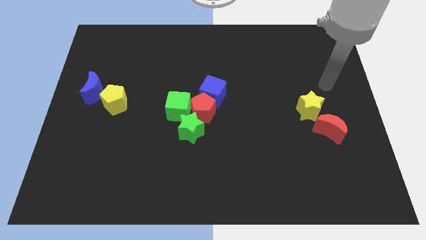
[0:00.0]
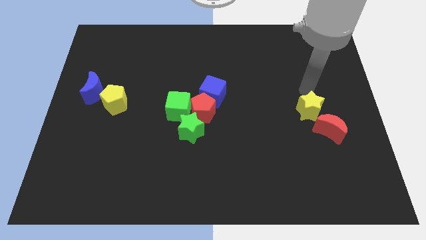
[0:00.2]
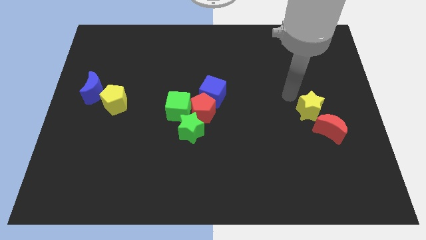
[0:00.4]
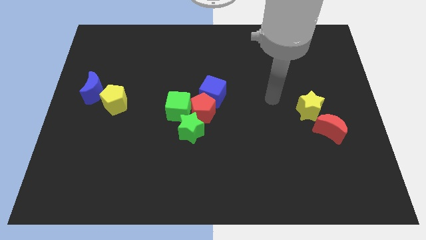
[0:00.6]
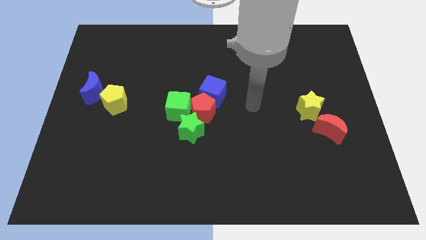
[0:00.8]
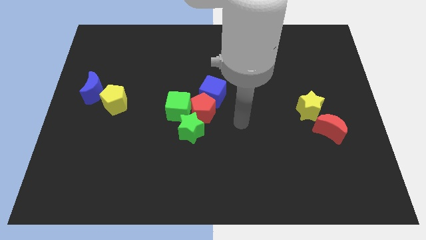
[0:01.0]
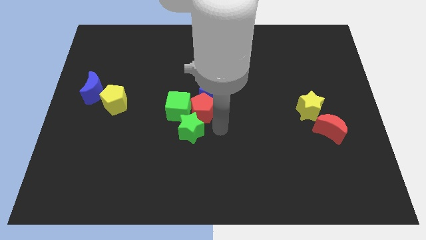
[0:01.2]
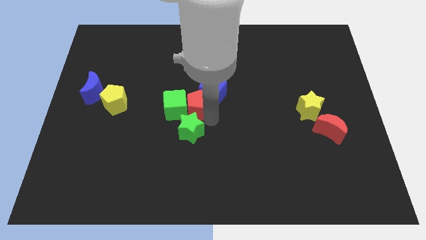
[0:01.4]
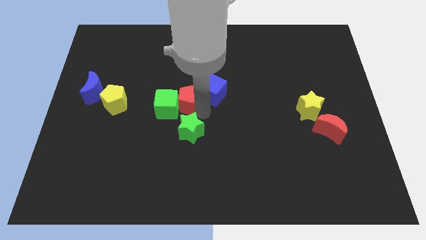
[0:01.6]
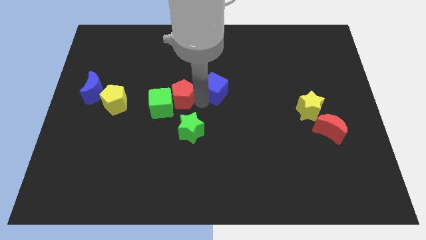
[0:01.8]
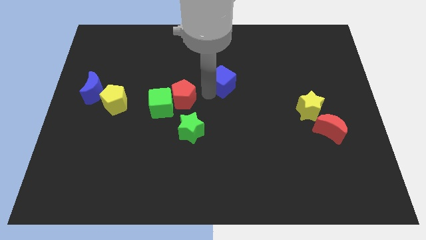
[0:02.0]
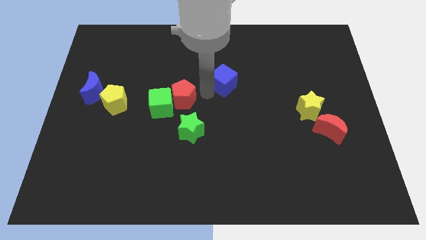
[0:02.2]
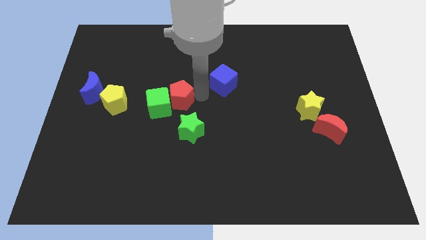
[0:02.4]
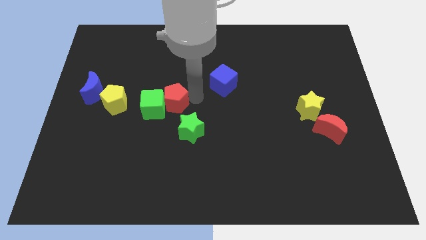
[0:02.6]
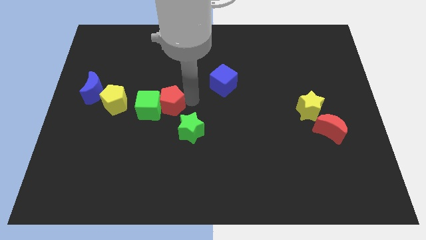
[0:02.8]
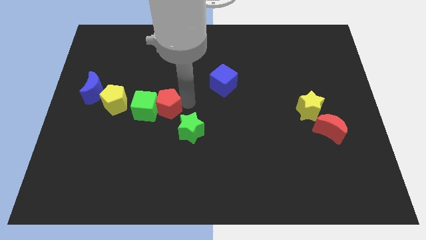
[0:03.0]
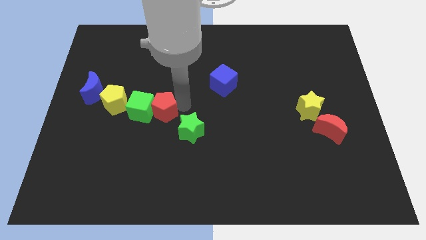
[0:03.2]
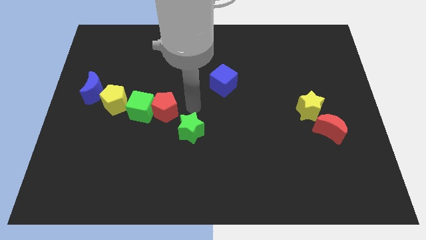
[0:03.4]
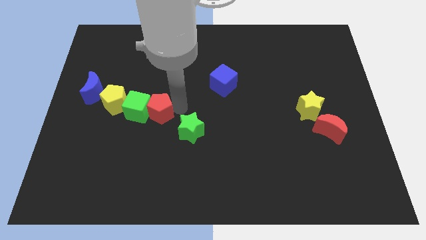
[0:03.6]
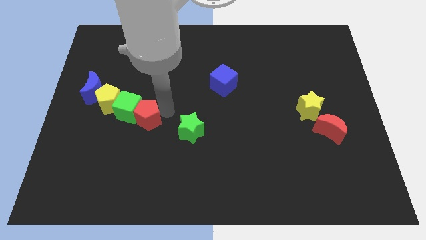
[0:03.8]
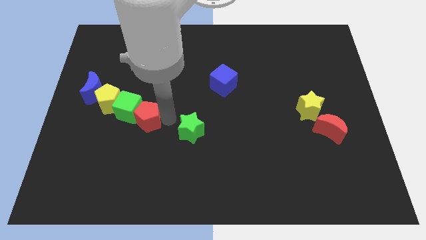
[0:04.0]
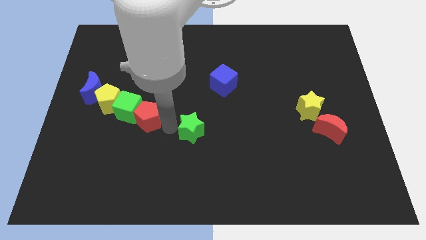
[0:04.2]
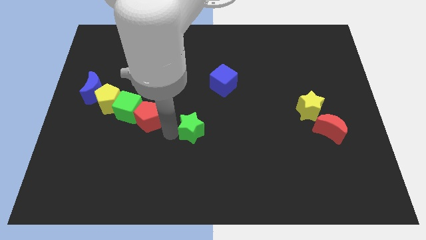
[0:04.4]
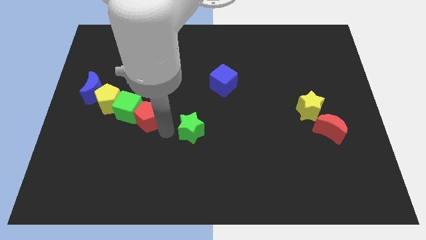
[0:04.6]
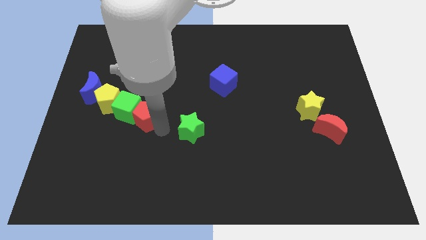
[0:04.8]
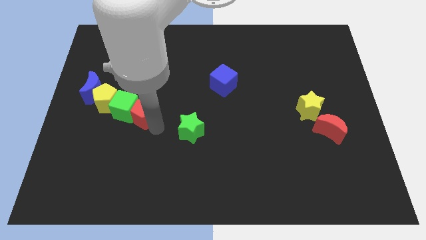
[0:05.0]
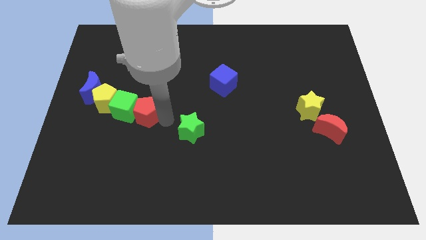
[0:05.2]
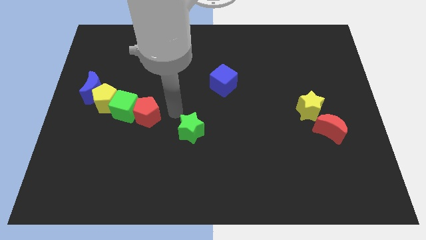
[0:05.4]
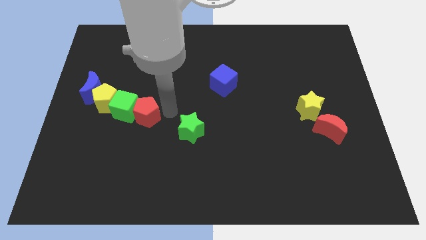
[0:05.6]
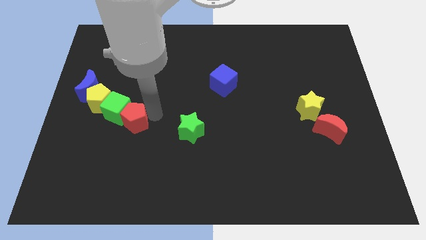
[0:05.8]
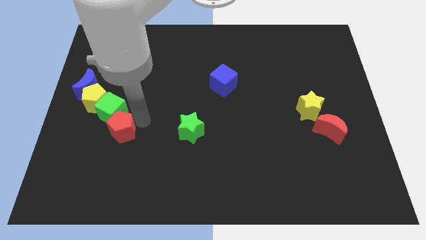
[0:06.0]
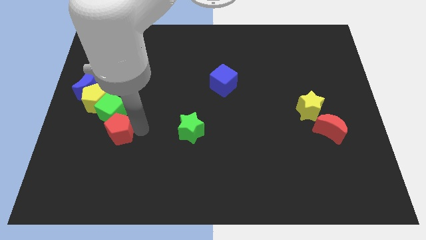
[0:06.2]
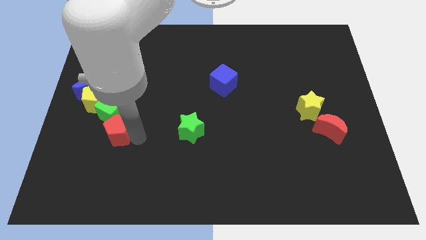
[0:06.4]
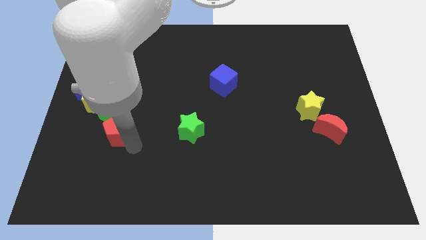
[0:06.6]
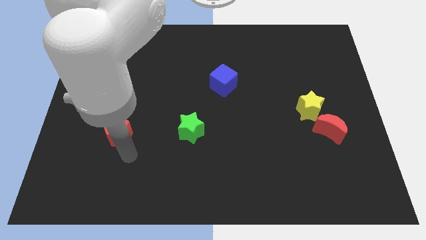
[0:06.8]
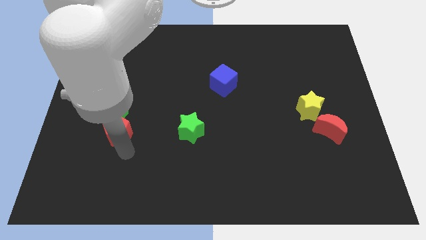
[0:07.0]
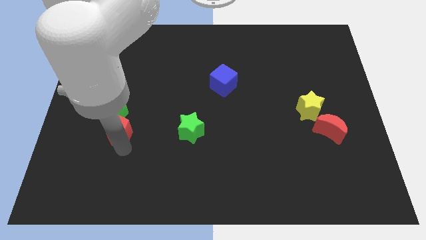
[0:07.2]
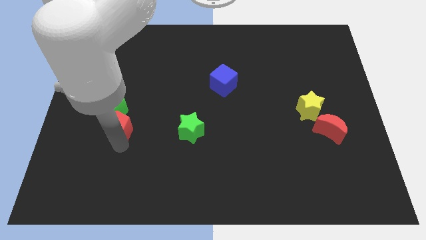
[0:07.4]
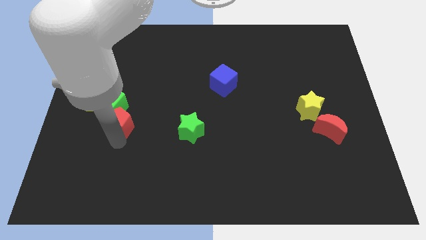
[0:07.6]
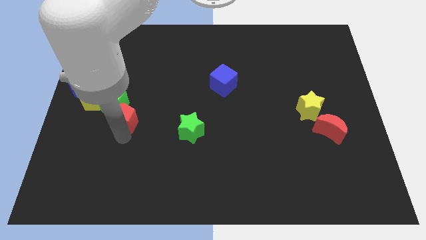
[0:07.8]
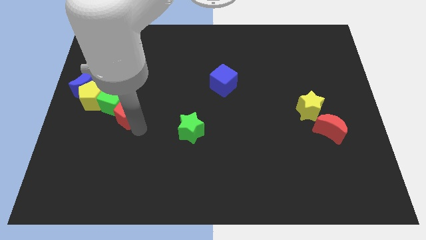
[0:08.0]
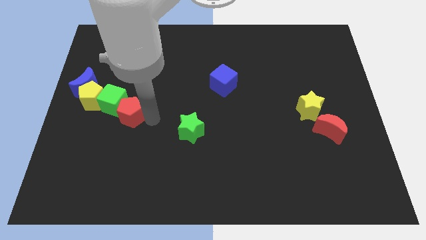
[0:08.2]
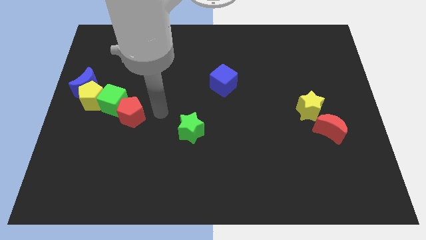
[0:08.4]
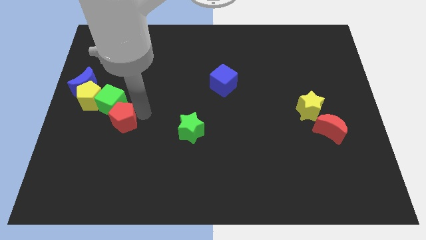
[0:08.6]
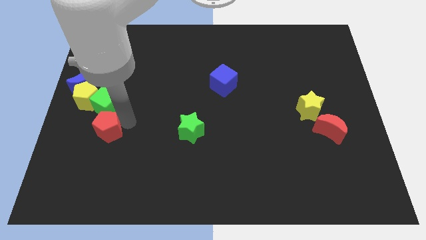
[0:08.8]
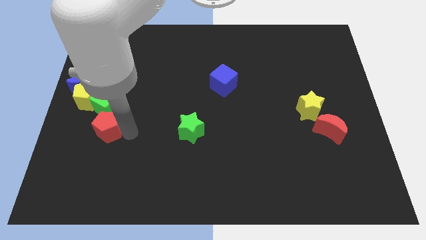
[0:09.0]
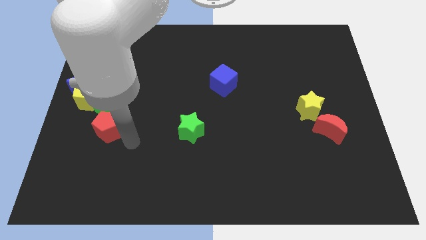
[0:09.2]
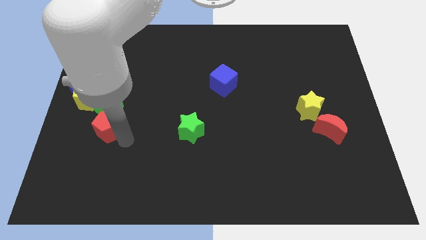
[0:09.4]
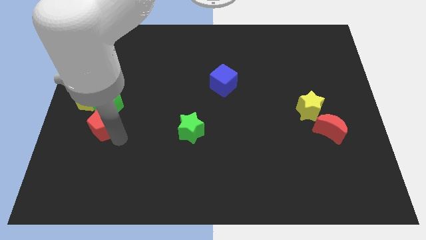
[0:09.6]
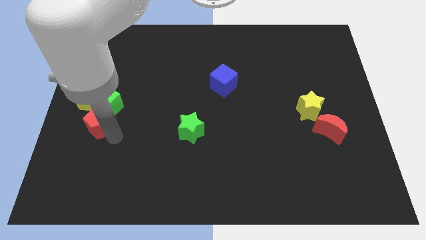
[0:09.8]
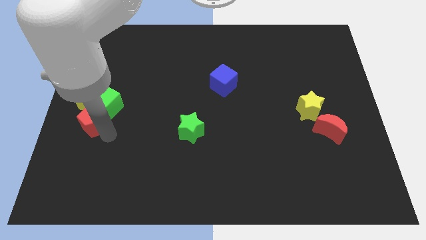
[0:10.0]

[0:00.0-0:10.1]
put the red pentagon to the left side
